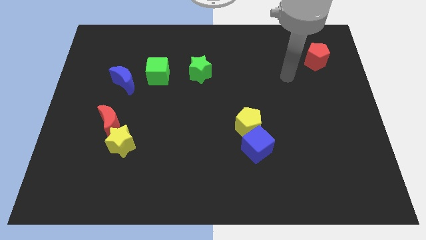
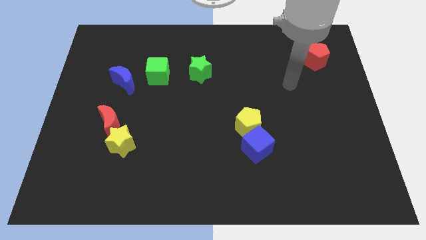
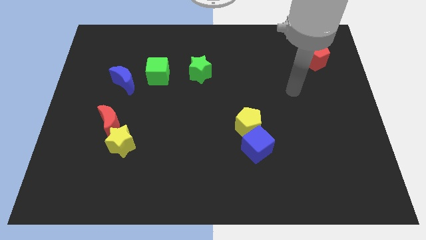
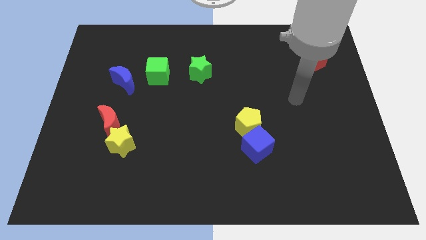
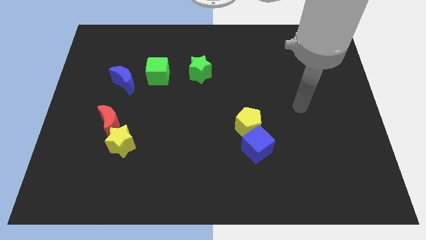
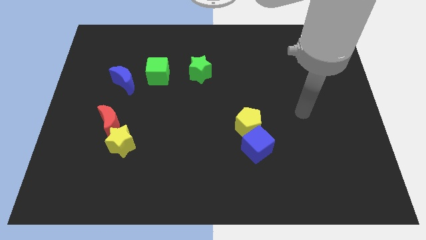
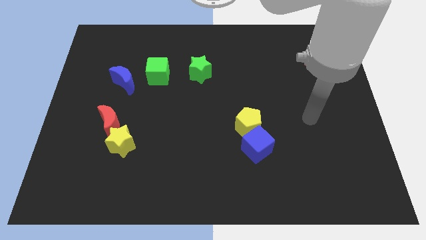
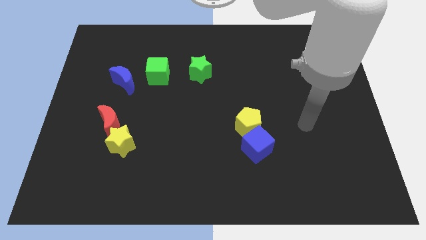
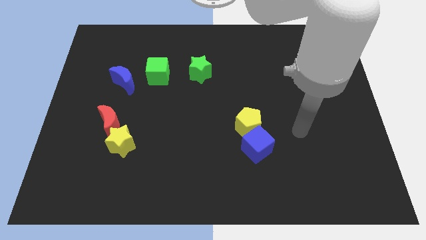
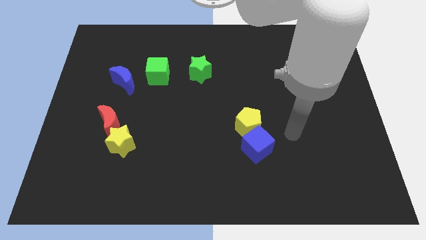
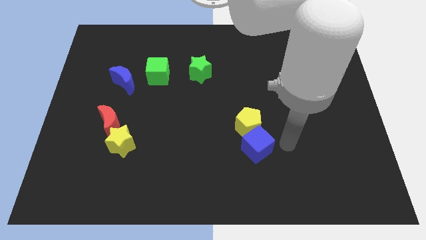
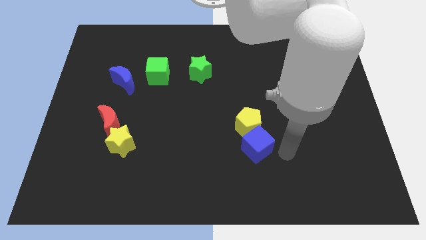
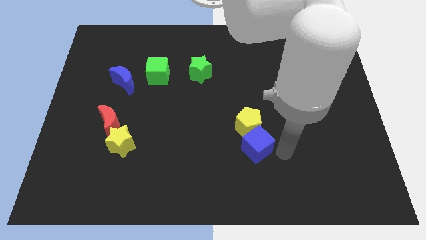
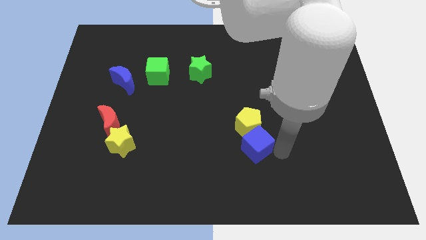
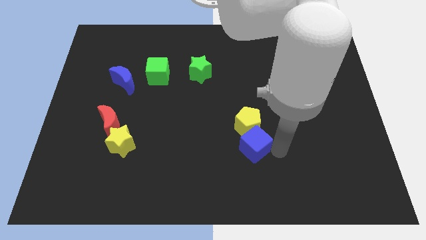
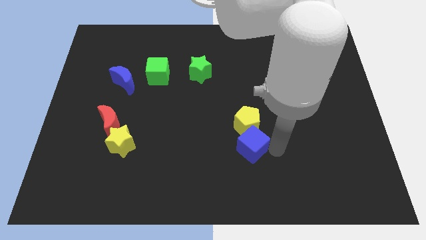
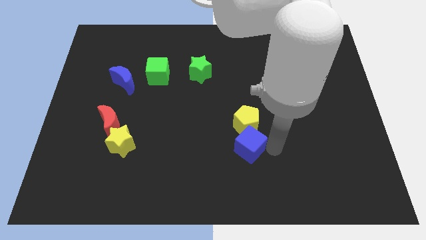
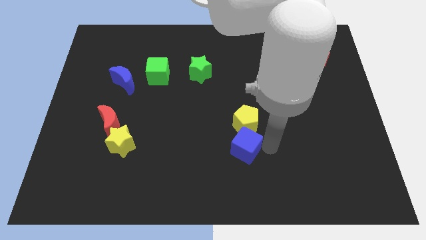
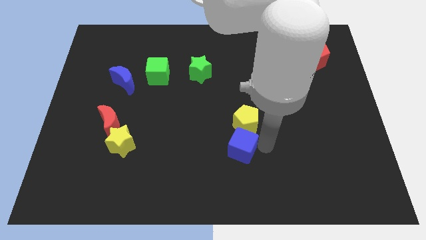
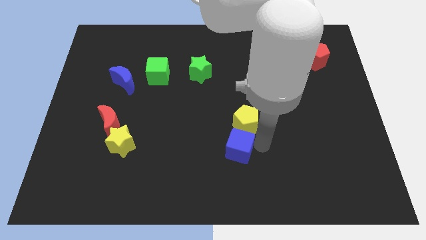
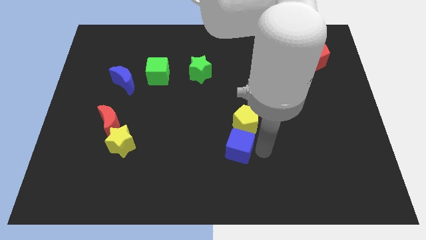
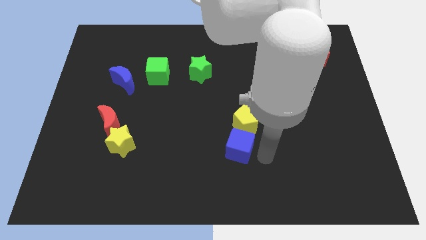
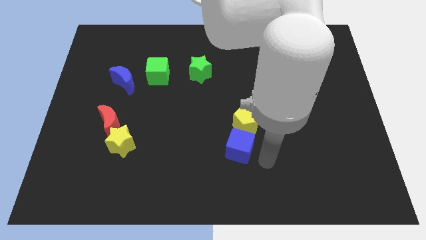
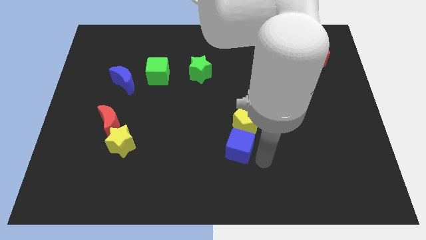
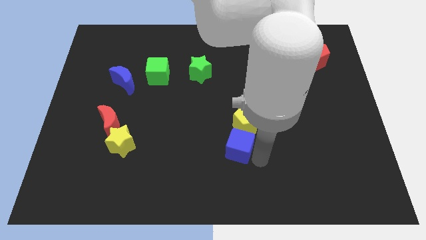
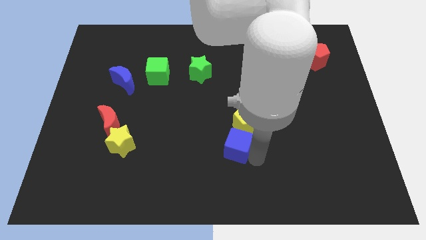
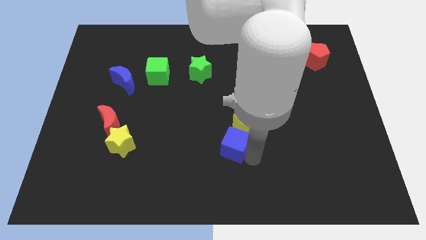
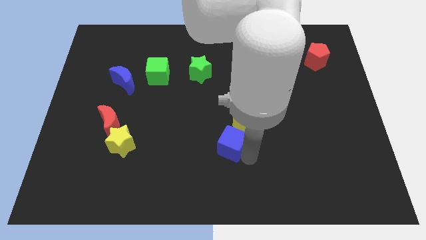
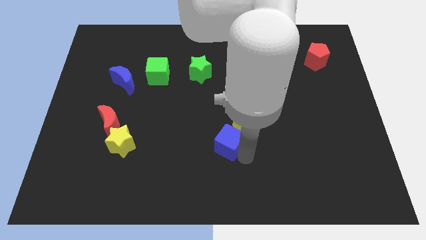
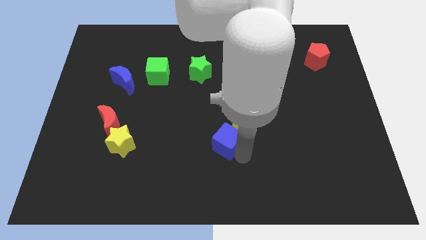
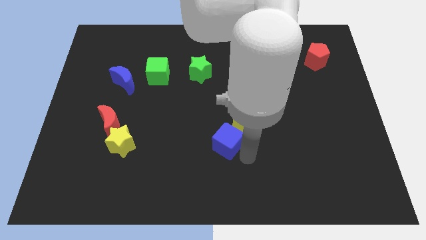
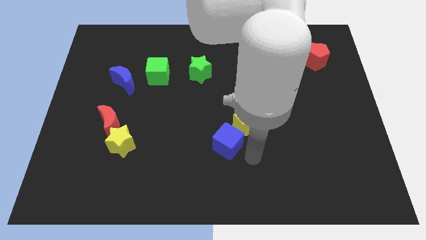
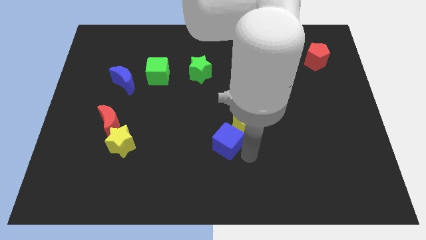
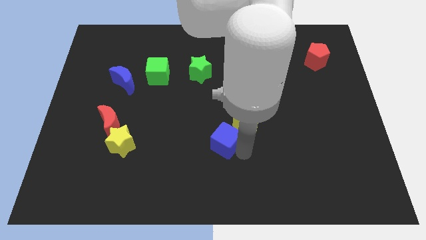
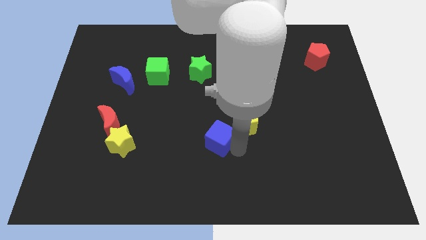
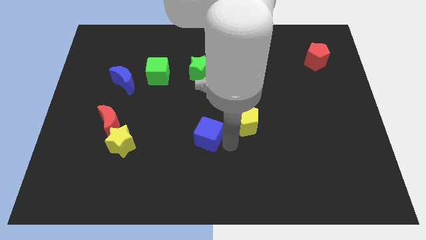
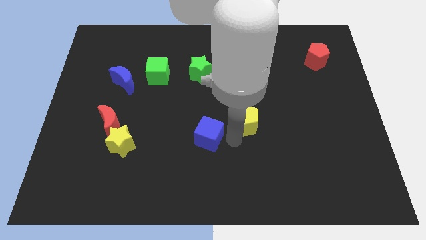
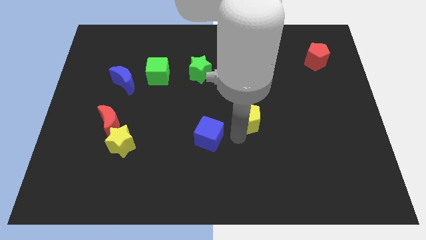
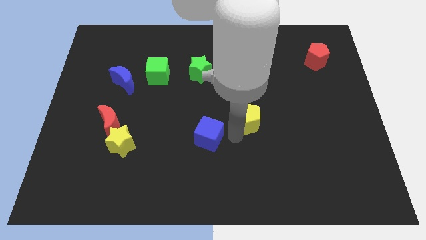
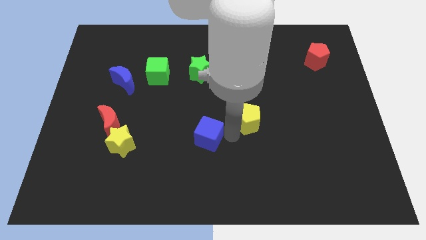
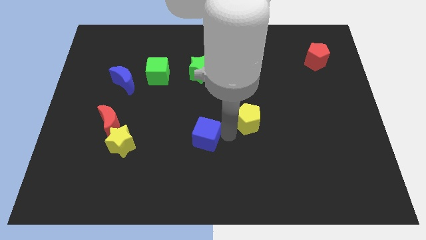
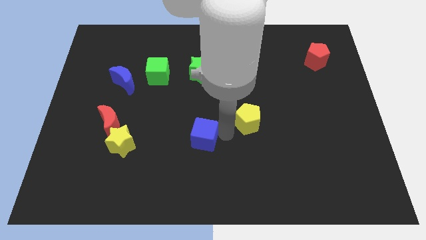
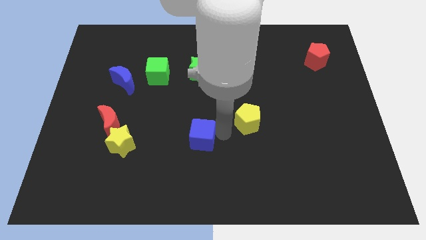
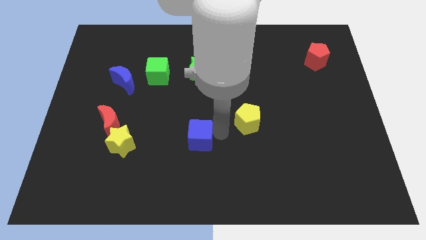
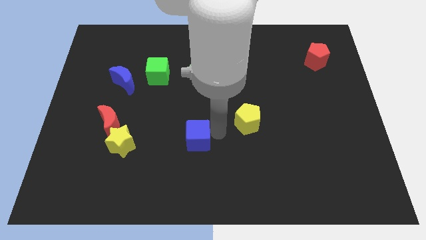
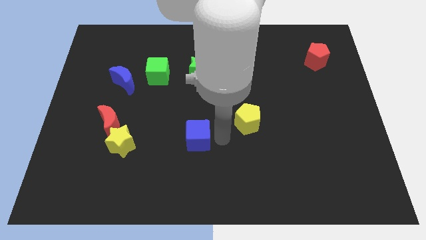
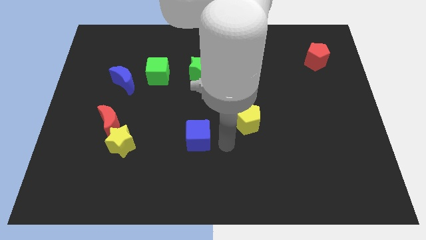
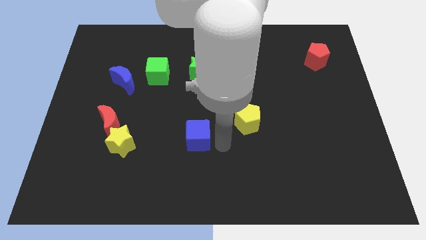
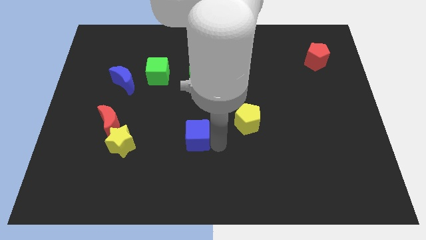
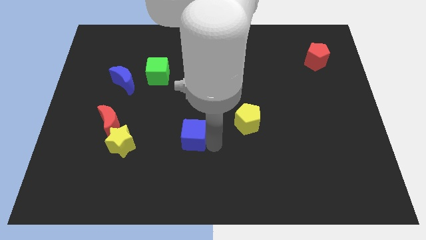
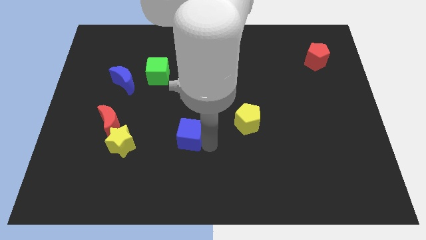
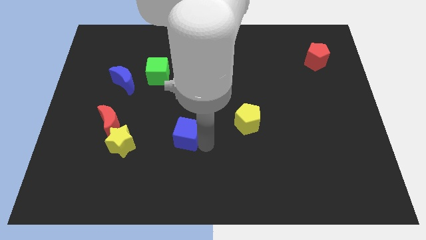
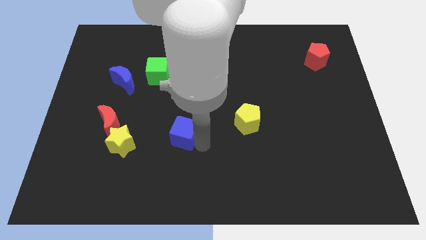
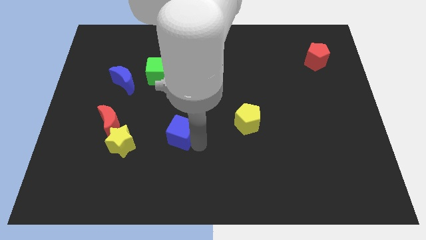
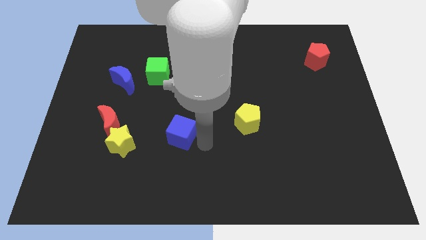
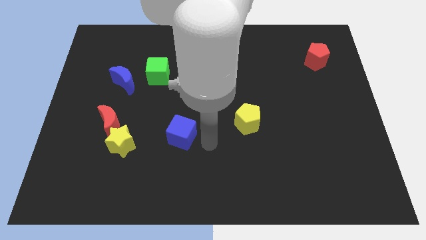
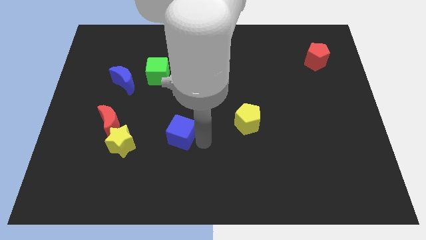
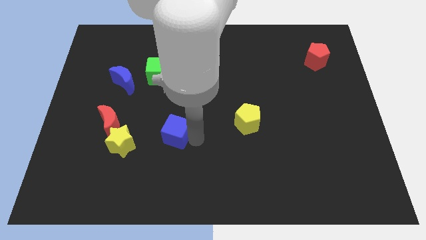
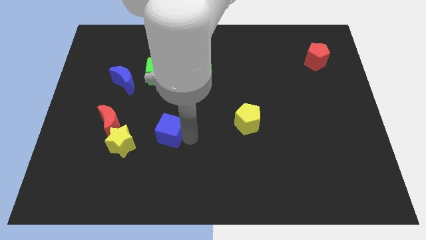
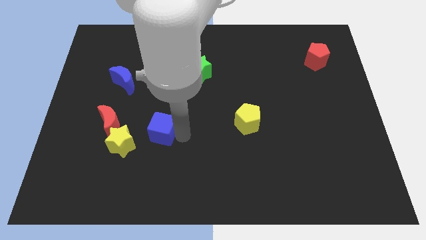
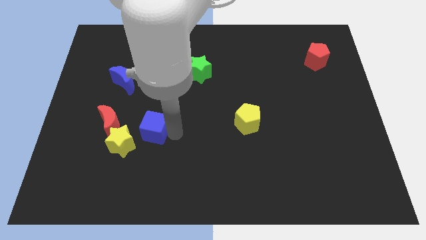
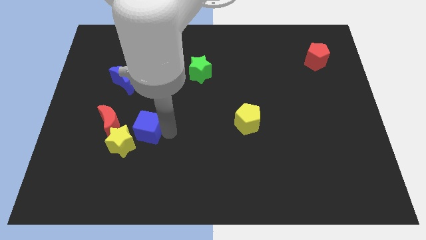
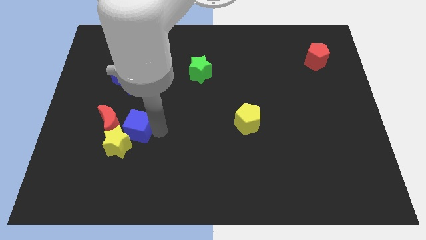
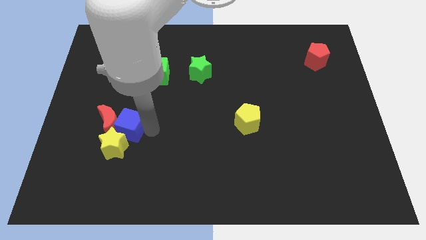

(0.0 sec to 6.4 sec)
move the blue cube close to the red moon

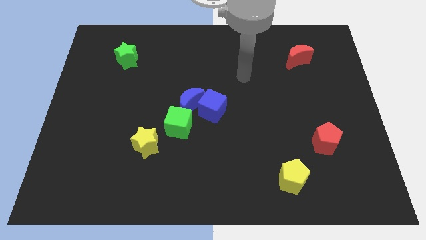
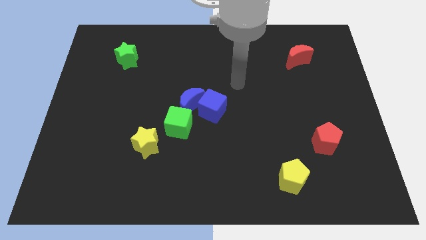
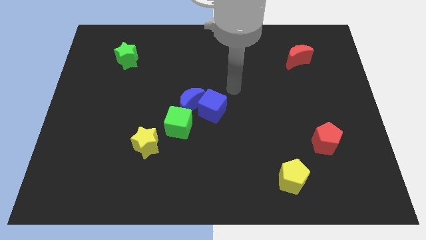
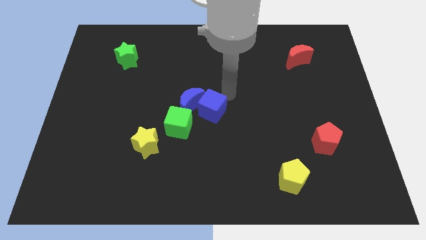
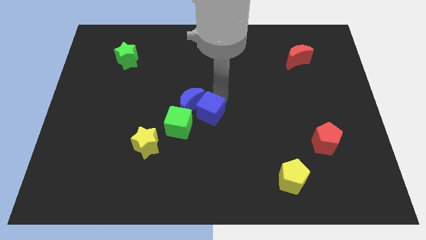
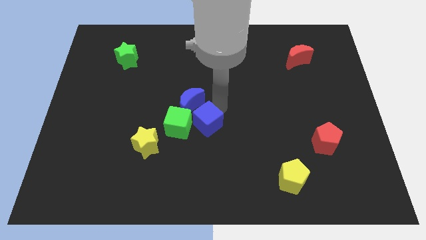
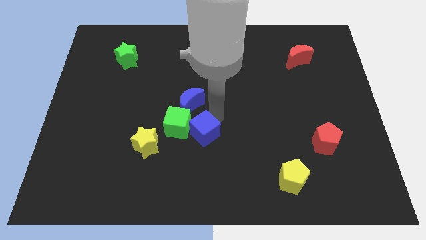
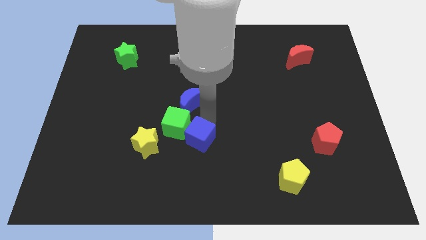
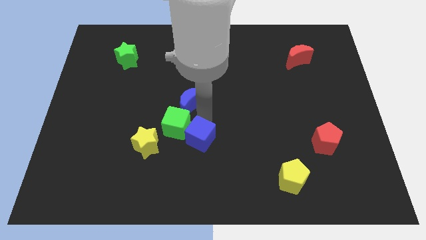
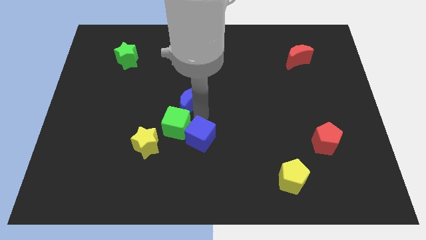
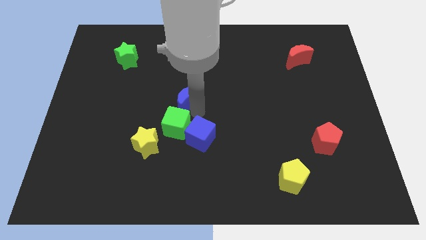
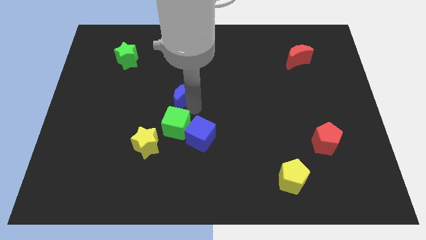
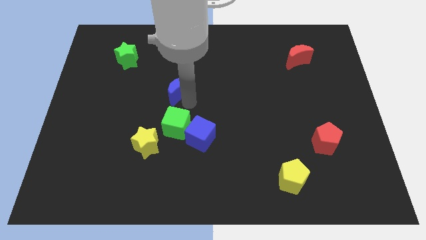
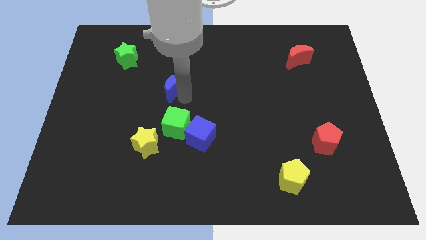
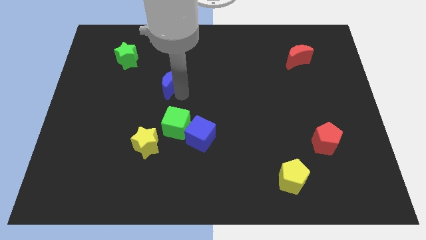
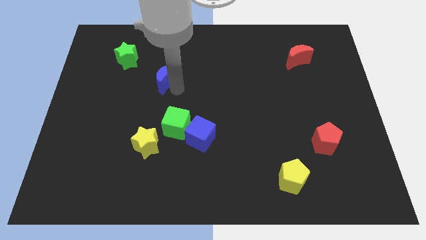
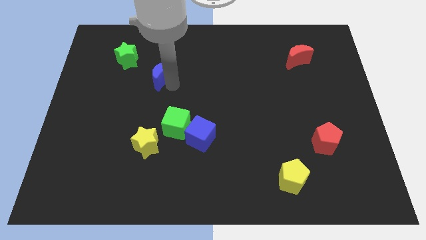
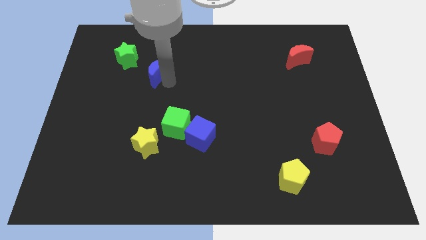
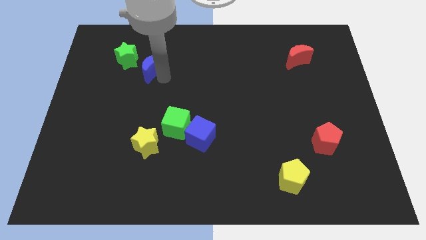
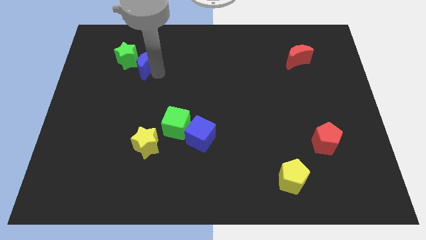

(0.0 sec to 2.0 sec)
move the blue moon to the green star
